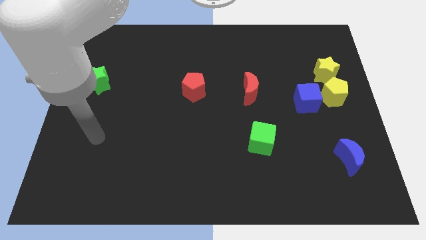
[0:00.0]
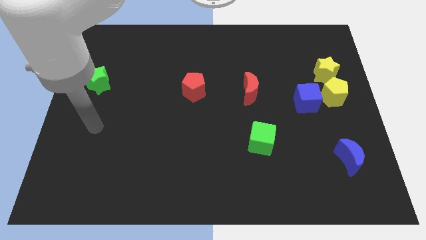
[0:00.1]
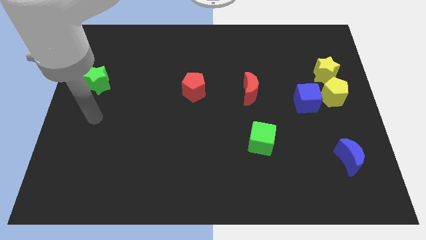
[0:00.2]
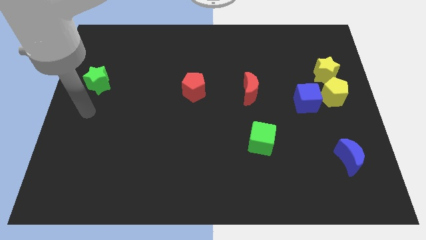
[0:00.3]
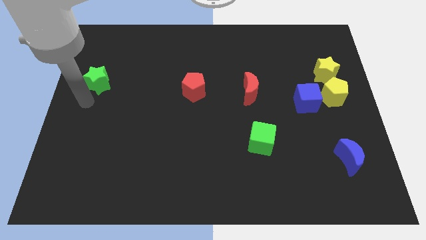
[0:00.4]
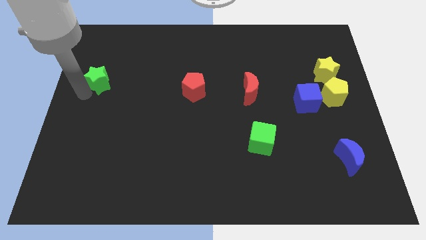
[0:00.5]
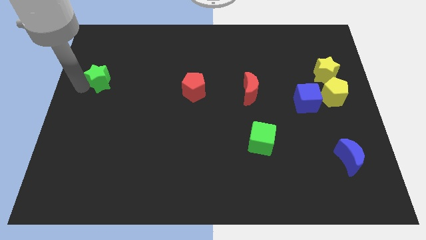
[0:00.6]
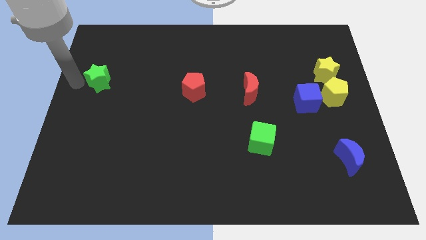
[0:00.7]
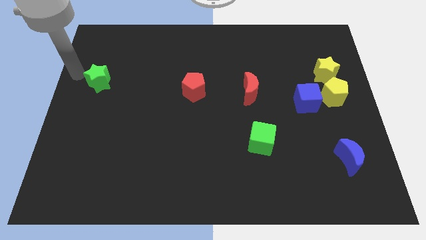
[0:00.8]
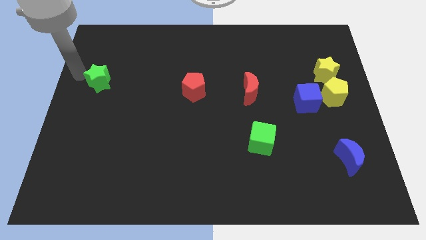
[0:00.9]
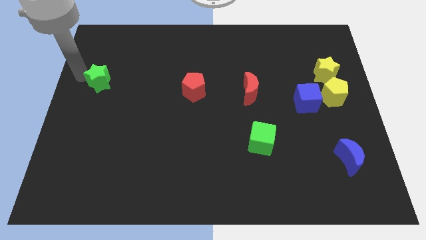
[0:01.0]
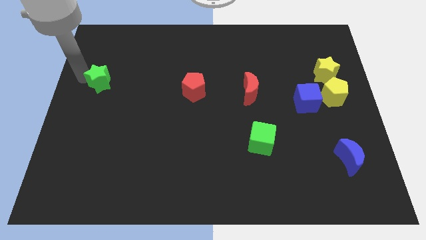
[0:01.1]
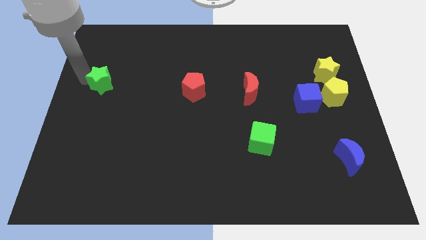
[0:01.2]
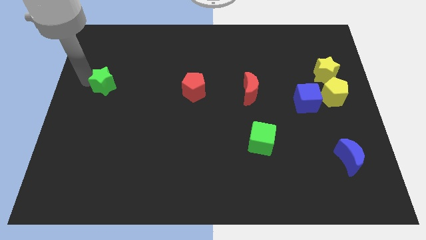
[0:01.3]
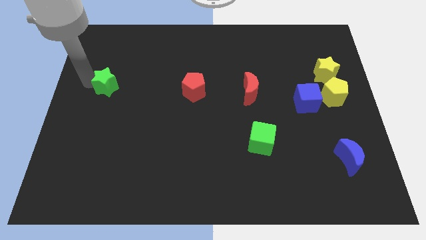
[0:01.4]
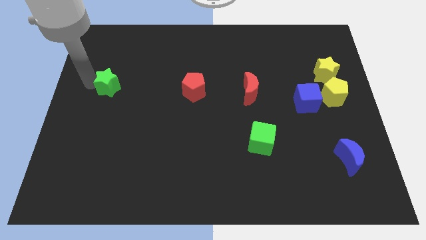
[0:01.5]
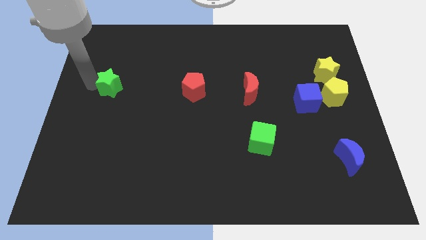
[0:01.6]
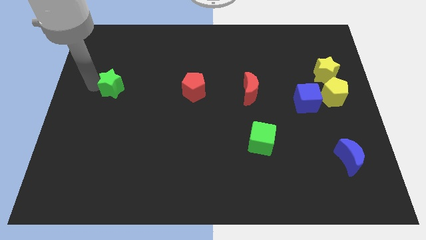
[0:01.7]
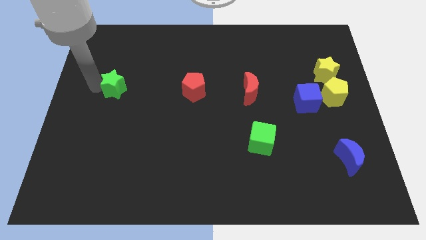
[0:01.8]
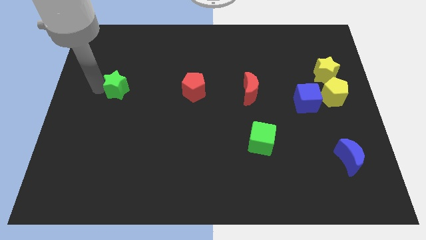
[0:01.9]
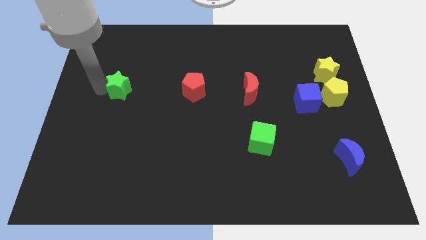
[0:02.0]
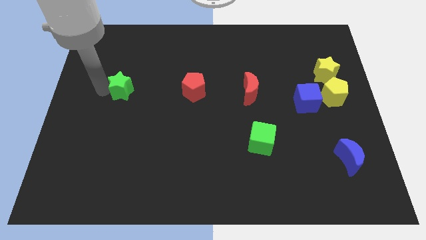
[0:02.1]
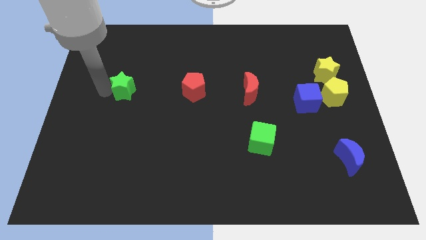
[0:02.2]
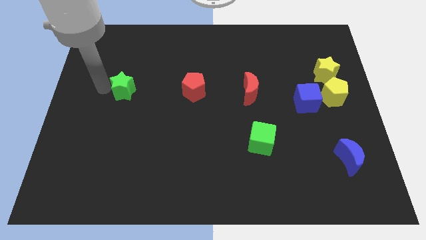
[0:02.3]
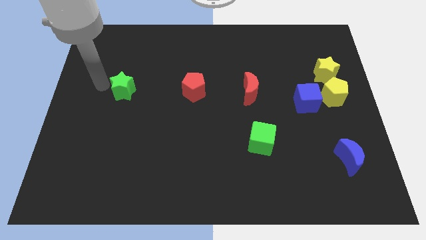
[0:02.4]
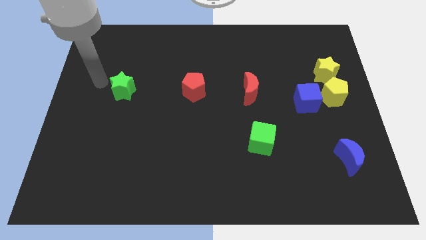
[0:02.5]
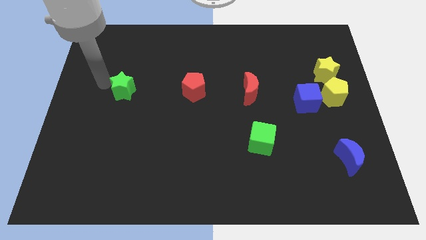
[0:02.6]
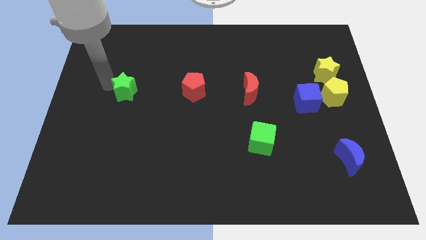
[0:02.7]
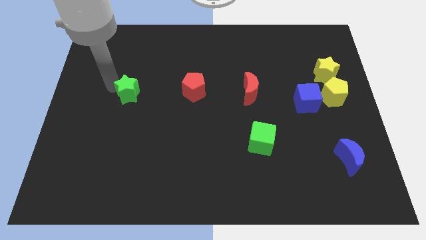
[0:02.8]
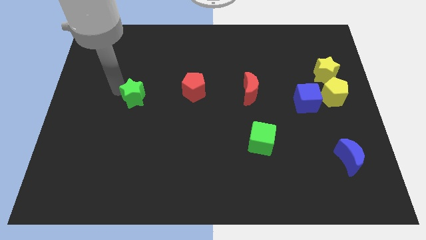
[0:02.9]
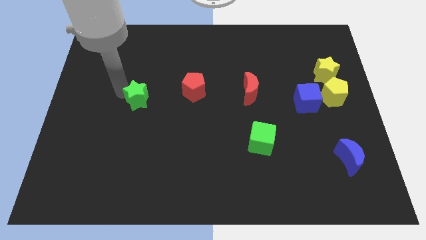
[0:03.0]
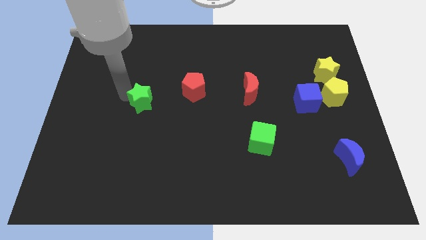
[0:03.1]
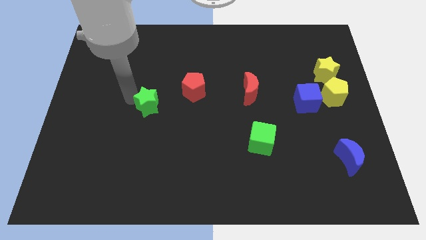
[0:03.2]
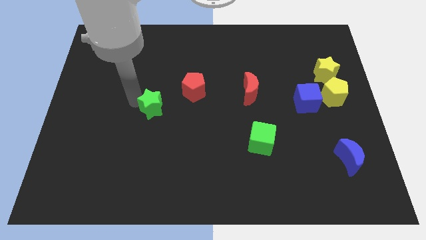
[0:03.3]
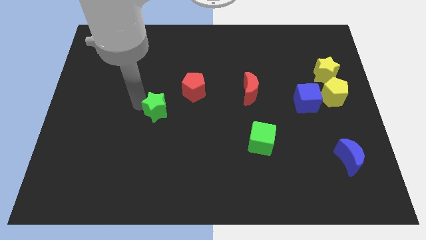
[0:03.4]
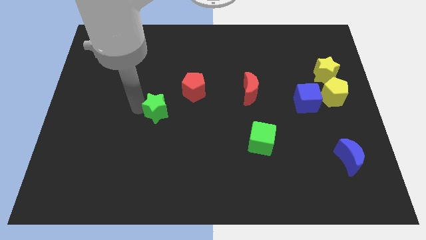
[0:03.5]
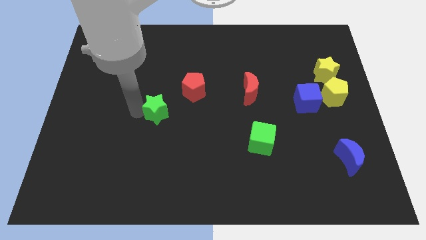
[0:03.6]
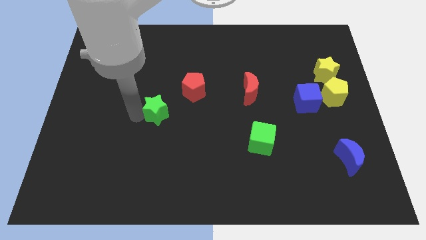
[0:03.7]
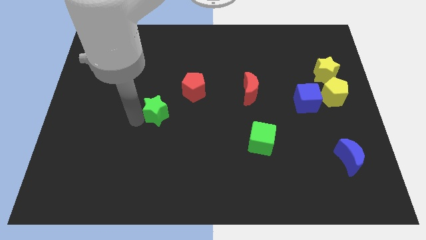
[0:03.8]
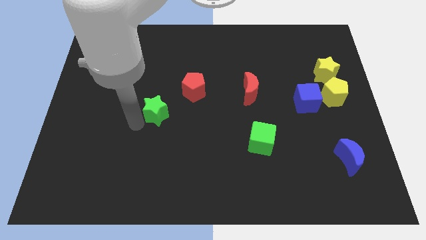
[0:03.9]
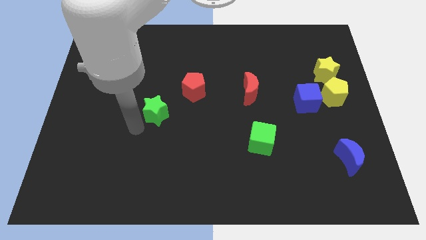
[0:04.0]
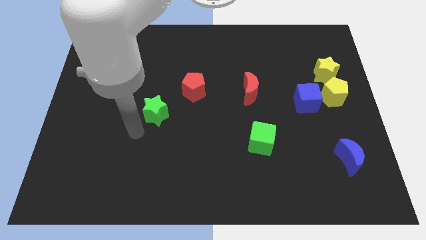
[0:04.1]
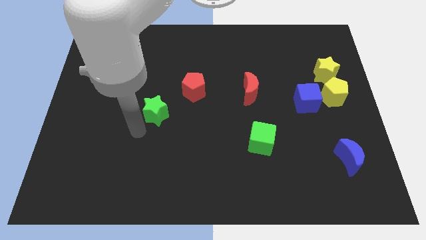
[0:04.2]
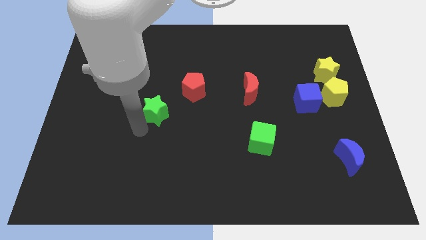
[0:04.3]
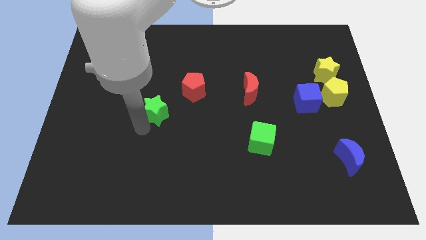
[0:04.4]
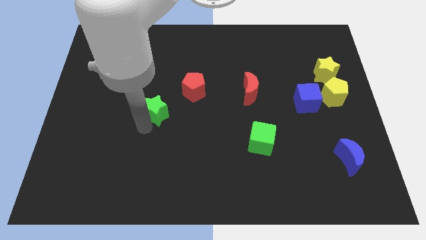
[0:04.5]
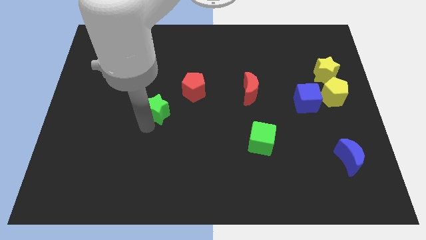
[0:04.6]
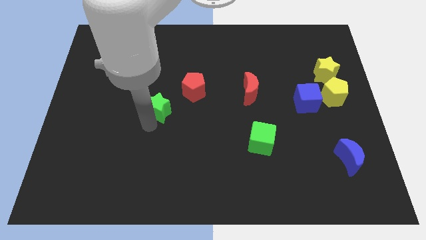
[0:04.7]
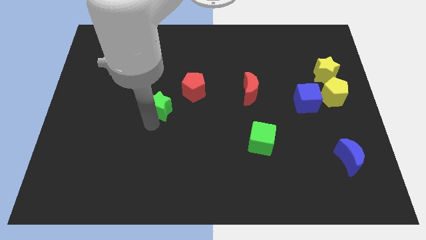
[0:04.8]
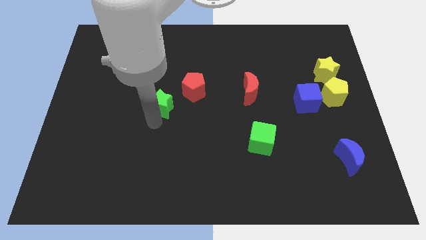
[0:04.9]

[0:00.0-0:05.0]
push the green star to the middle of the board

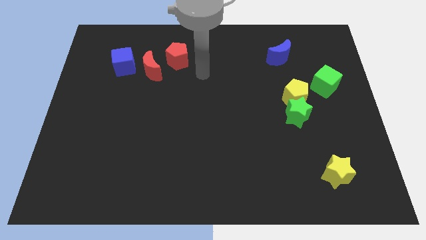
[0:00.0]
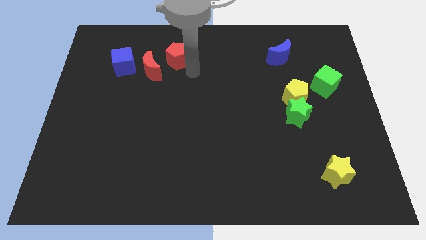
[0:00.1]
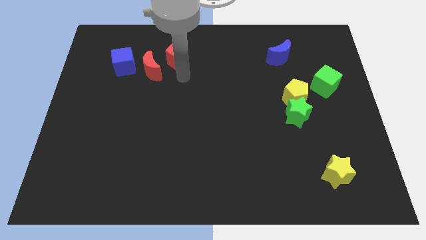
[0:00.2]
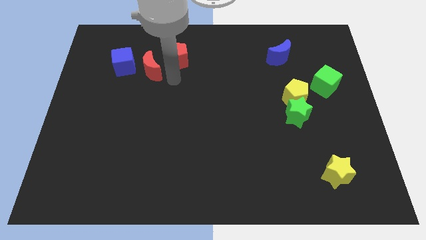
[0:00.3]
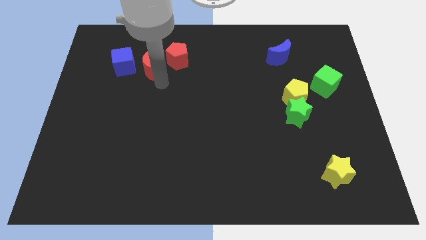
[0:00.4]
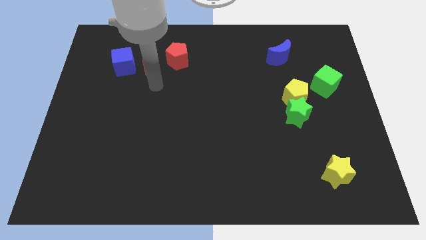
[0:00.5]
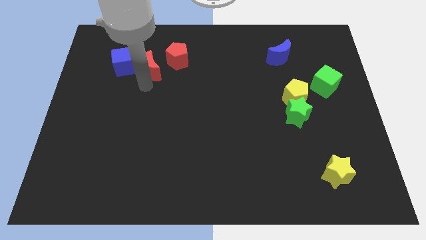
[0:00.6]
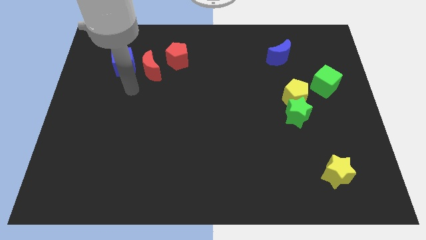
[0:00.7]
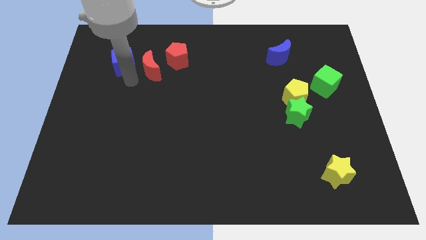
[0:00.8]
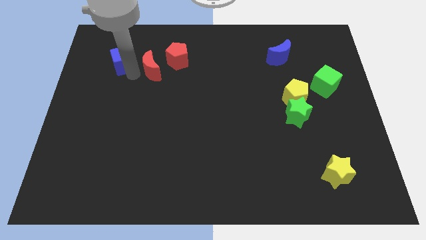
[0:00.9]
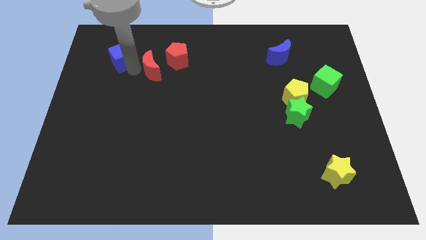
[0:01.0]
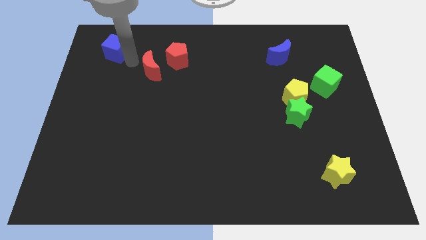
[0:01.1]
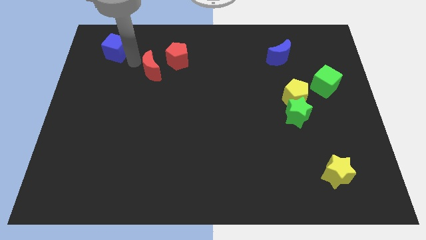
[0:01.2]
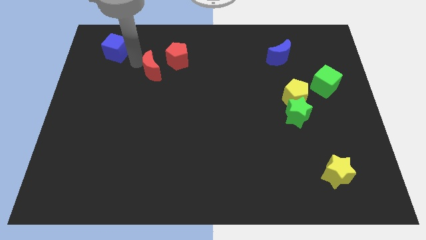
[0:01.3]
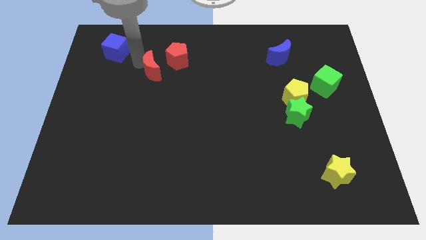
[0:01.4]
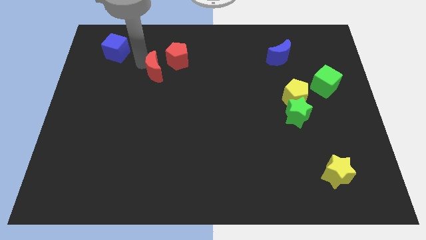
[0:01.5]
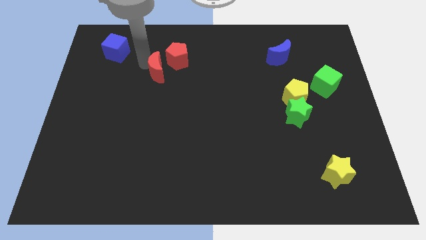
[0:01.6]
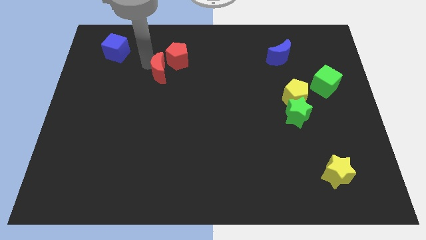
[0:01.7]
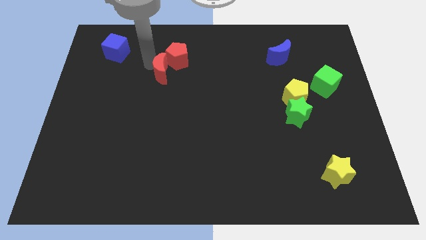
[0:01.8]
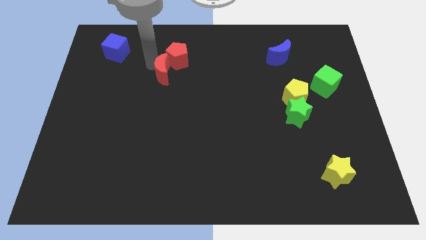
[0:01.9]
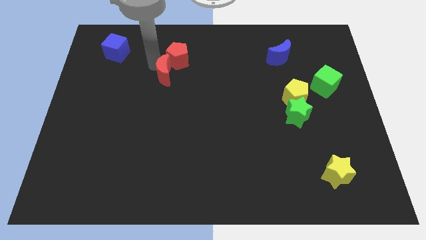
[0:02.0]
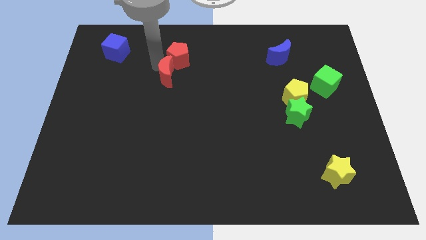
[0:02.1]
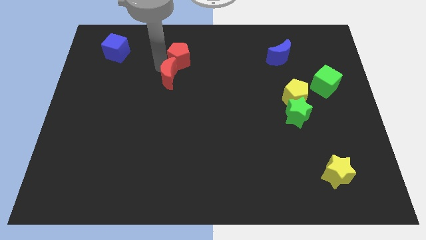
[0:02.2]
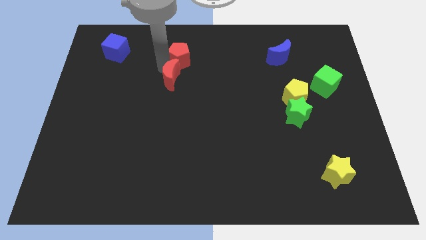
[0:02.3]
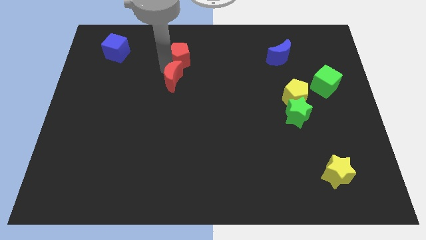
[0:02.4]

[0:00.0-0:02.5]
put the red moon to the center of the board
